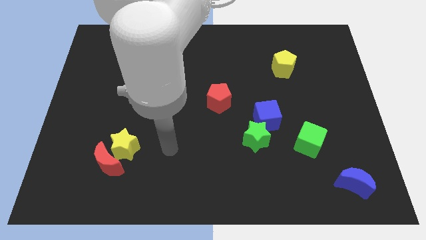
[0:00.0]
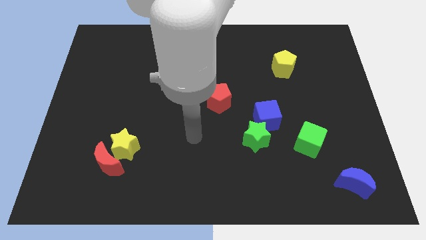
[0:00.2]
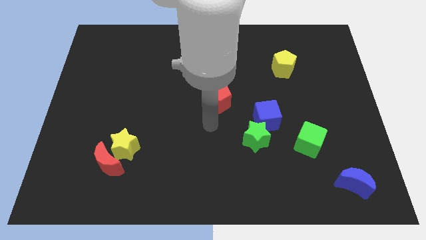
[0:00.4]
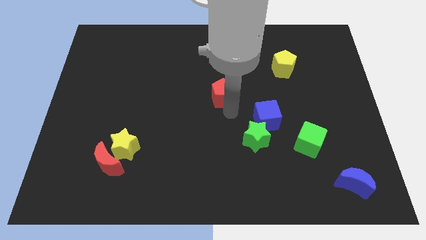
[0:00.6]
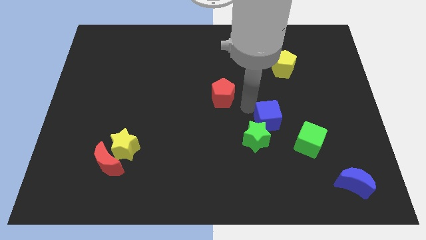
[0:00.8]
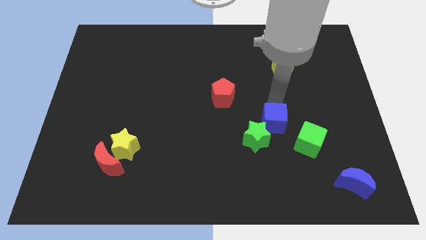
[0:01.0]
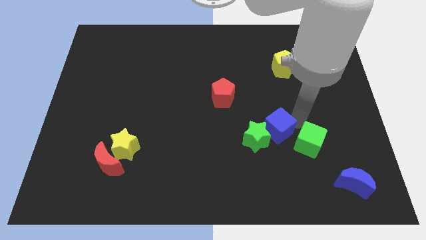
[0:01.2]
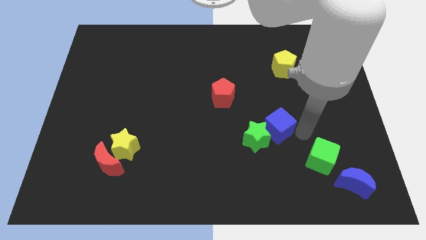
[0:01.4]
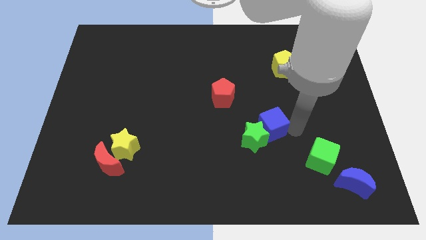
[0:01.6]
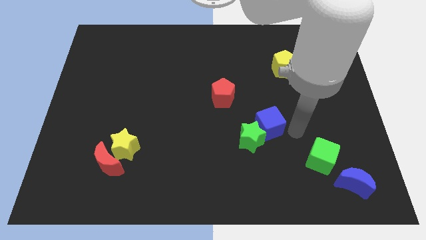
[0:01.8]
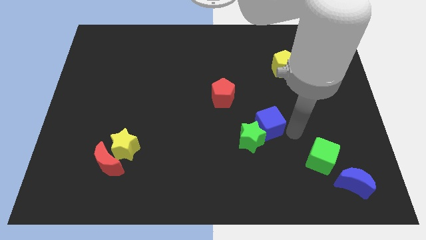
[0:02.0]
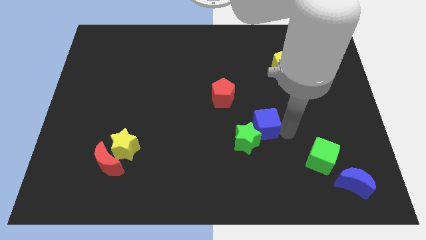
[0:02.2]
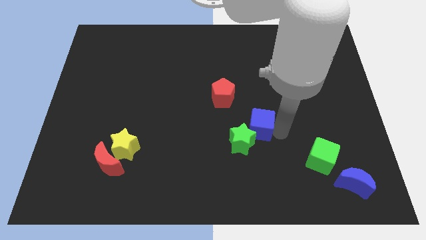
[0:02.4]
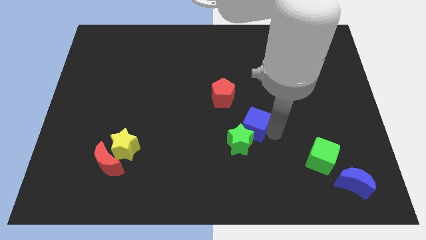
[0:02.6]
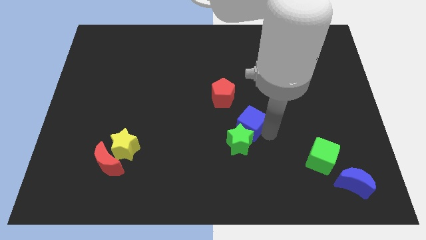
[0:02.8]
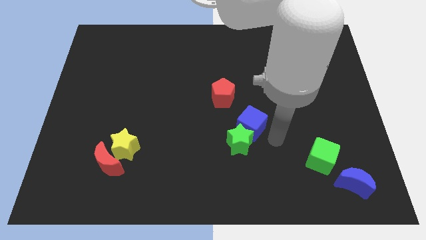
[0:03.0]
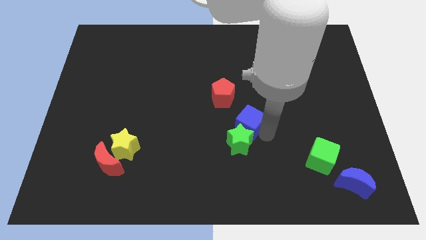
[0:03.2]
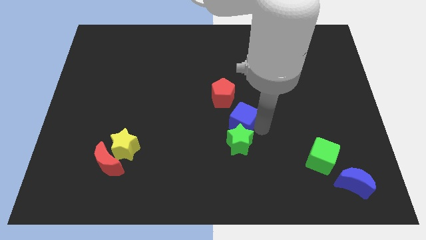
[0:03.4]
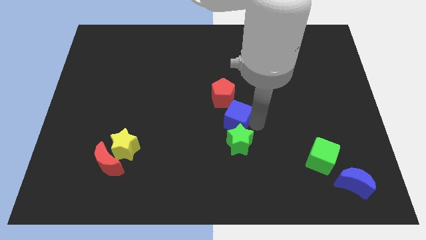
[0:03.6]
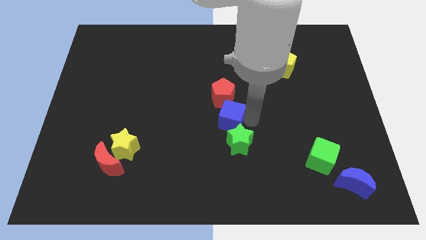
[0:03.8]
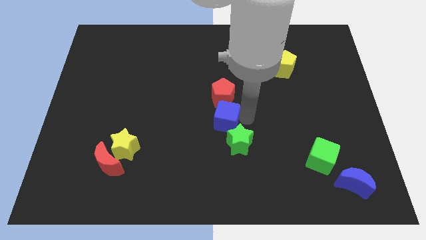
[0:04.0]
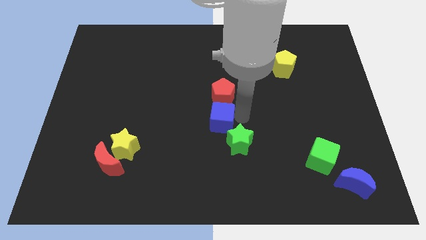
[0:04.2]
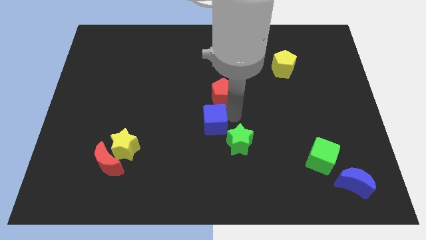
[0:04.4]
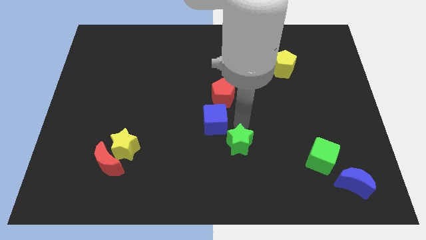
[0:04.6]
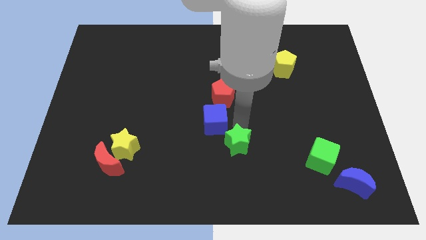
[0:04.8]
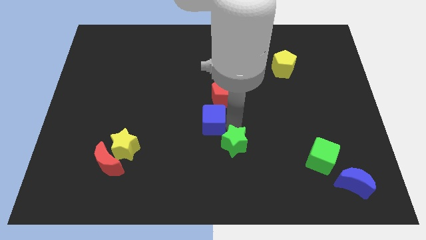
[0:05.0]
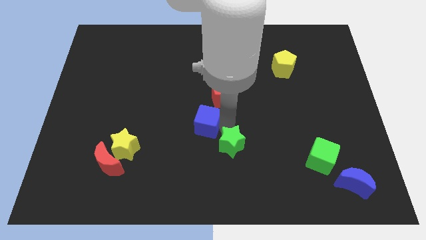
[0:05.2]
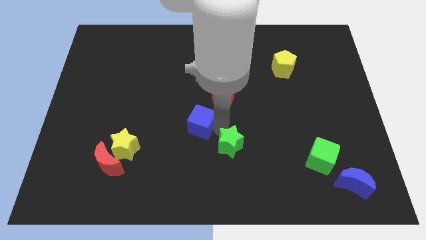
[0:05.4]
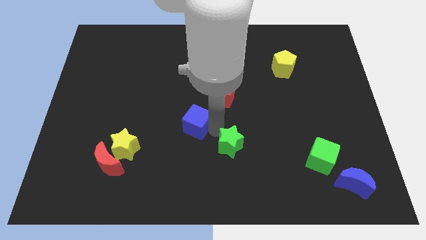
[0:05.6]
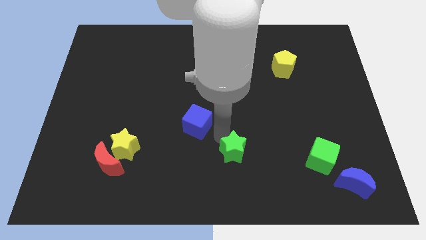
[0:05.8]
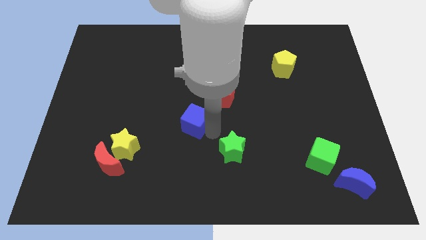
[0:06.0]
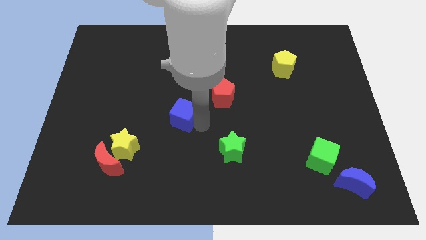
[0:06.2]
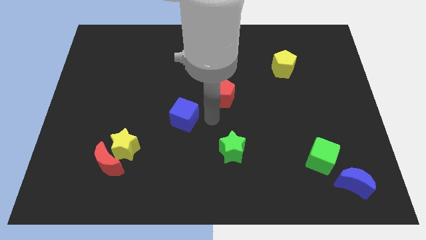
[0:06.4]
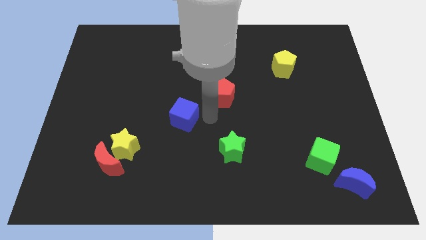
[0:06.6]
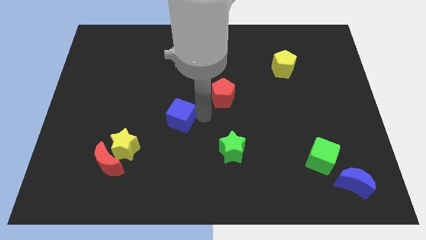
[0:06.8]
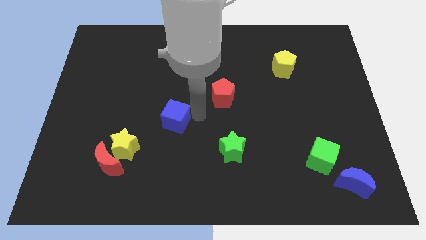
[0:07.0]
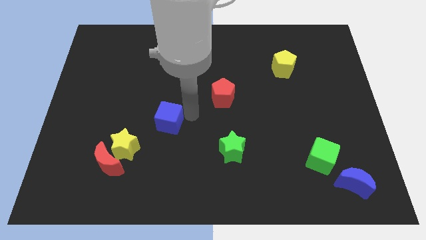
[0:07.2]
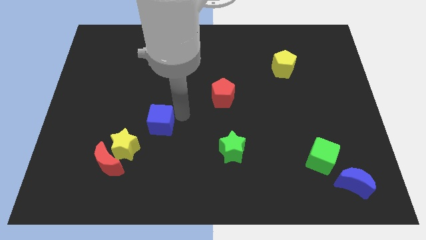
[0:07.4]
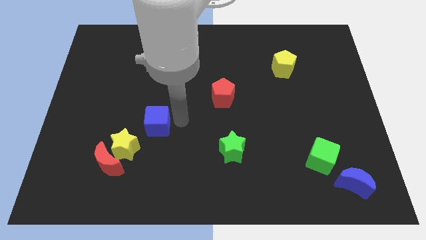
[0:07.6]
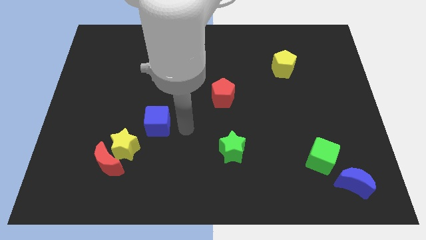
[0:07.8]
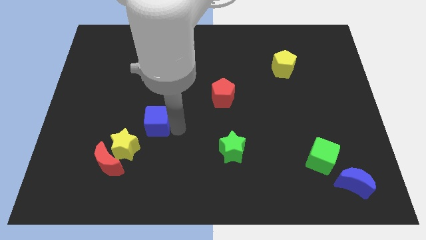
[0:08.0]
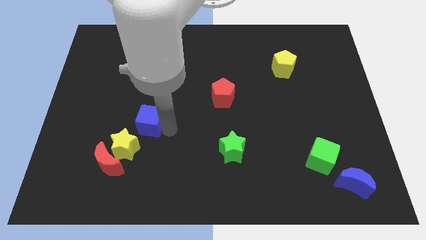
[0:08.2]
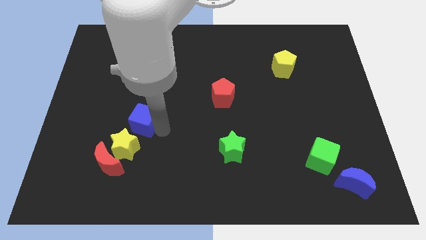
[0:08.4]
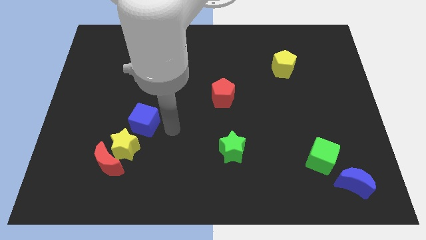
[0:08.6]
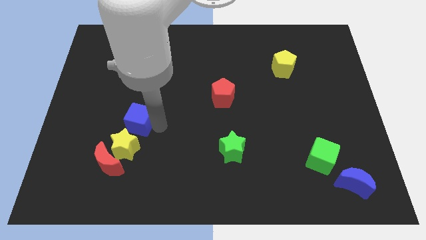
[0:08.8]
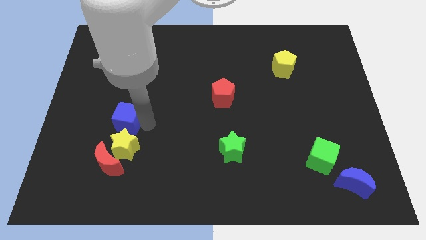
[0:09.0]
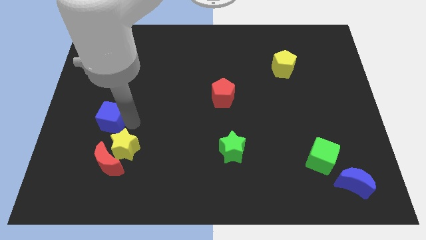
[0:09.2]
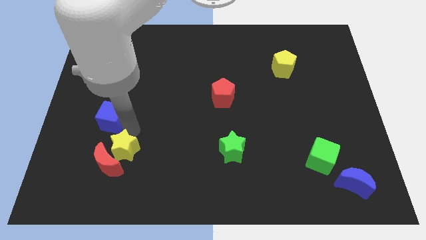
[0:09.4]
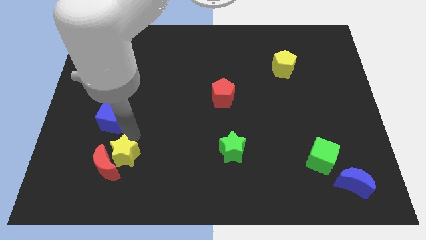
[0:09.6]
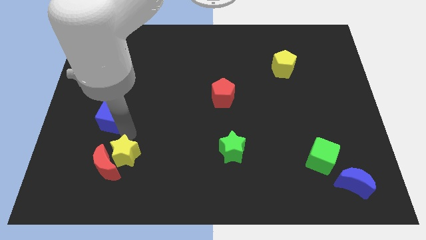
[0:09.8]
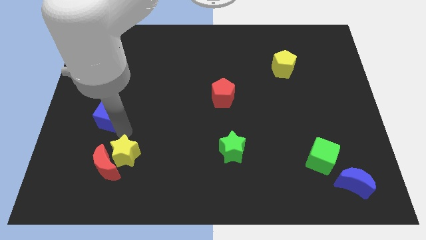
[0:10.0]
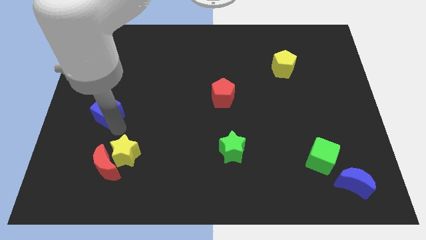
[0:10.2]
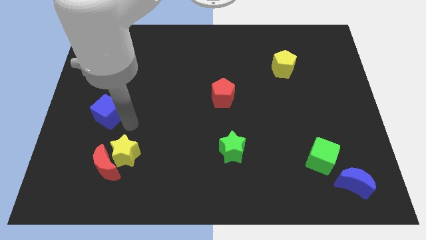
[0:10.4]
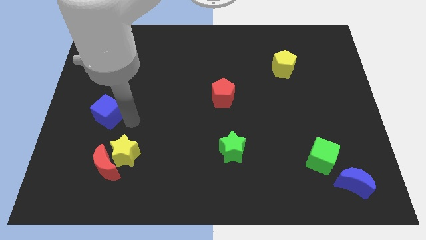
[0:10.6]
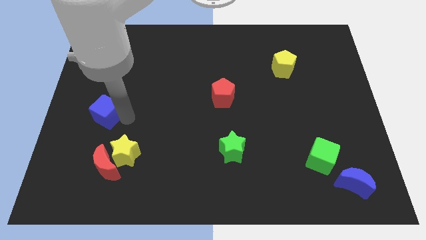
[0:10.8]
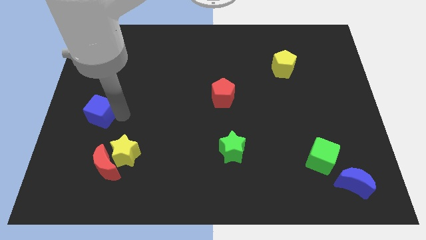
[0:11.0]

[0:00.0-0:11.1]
move the blue cube to the center left

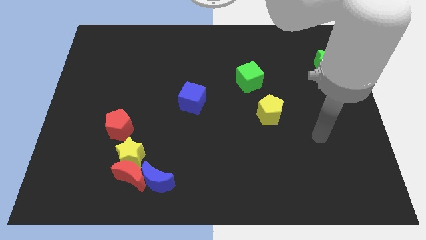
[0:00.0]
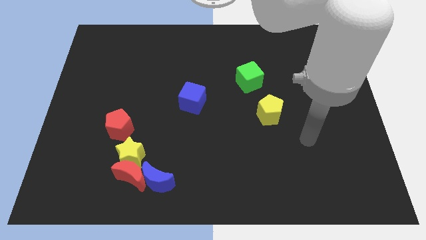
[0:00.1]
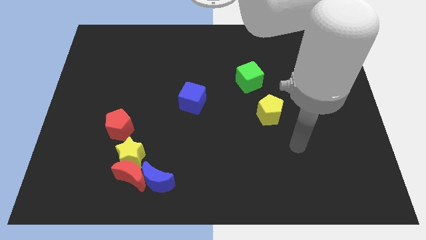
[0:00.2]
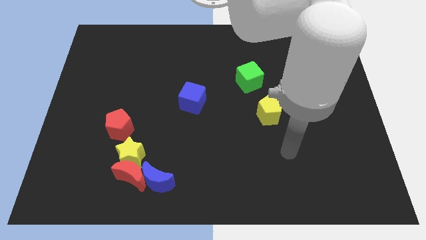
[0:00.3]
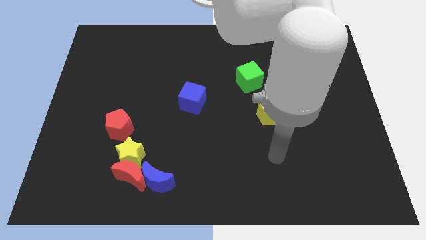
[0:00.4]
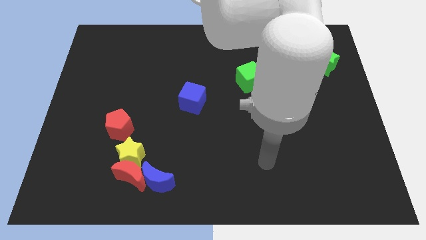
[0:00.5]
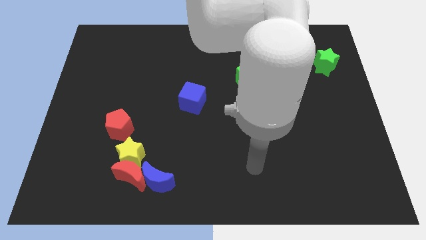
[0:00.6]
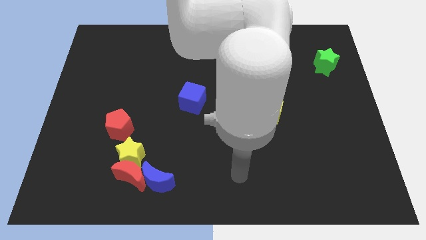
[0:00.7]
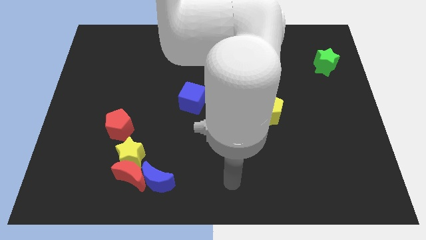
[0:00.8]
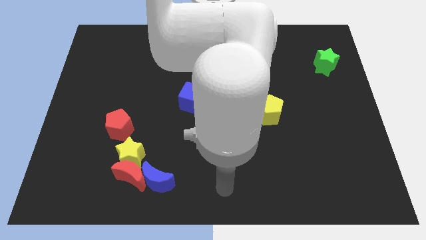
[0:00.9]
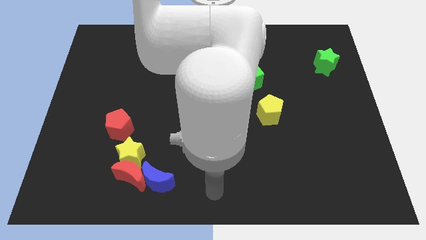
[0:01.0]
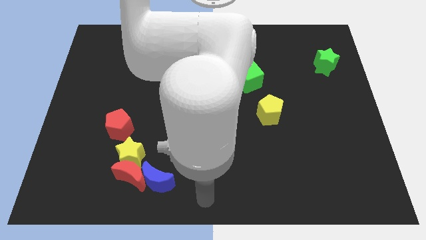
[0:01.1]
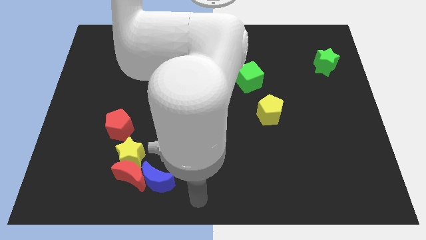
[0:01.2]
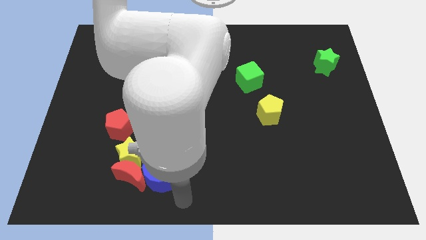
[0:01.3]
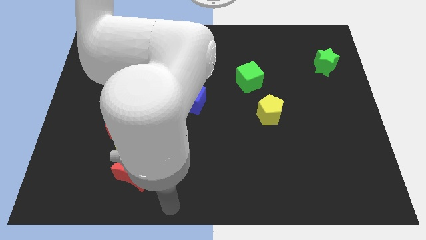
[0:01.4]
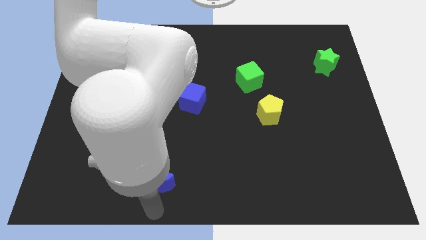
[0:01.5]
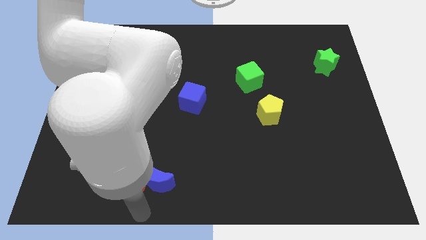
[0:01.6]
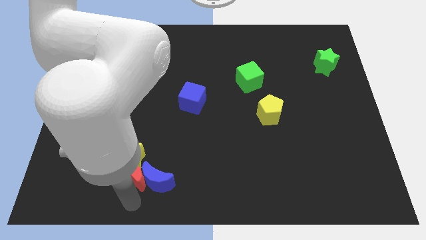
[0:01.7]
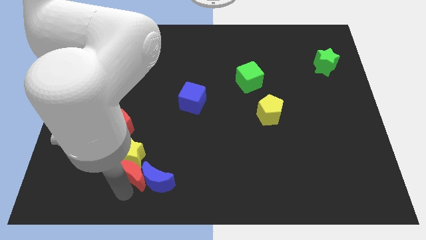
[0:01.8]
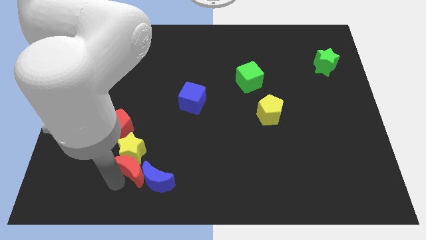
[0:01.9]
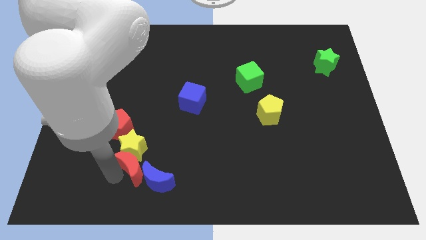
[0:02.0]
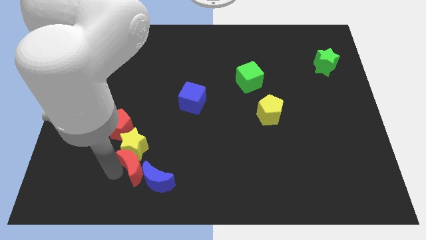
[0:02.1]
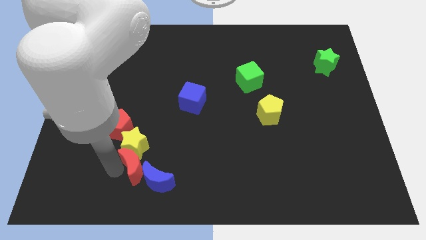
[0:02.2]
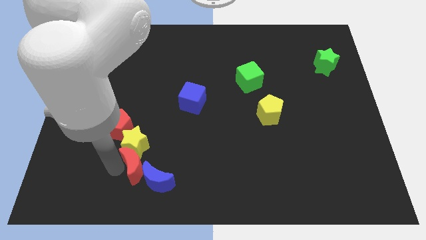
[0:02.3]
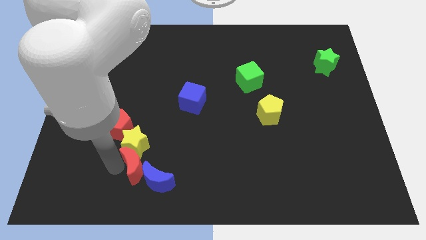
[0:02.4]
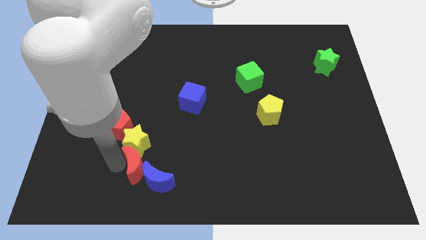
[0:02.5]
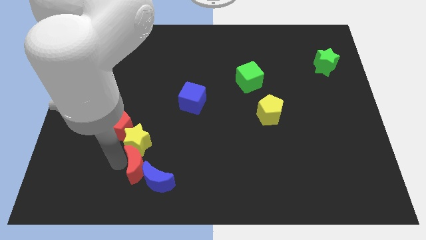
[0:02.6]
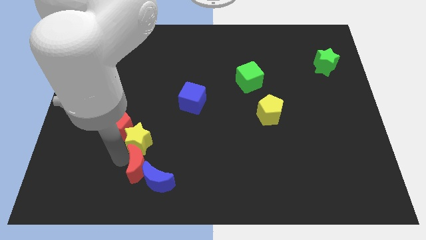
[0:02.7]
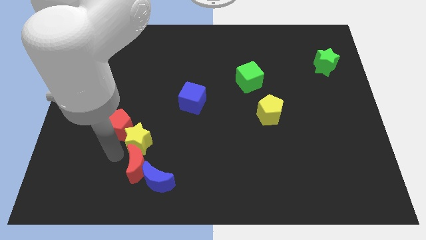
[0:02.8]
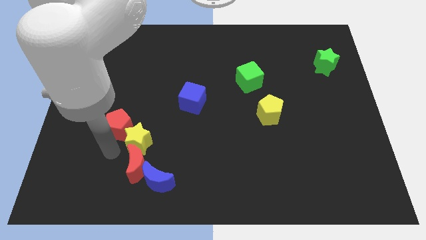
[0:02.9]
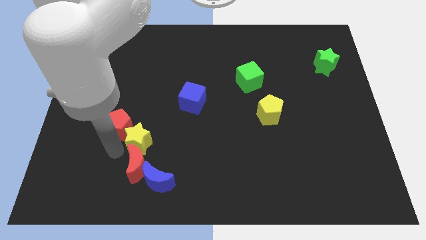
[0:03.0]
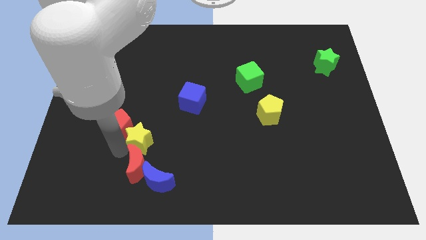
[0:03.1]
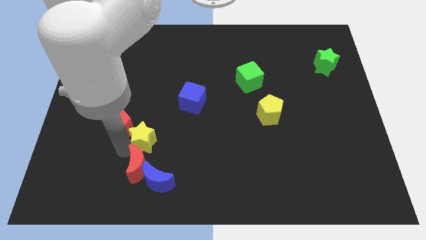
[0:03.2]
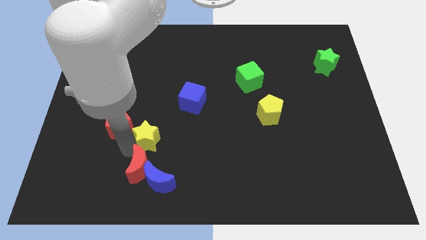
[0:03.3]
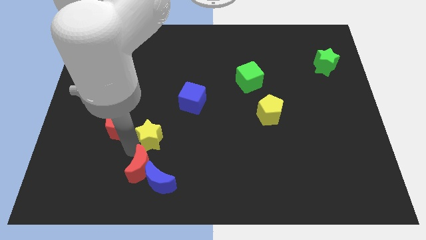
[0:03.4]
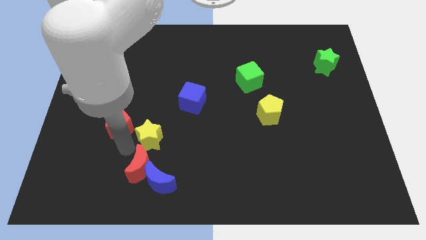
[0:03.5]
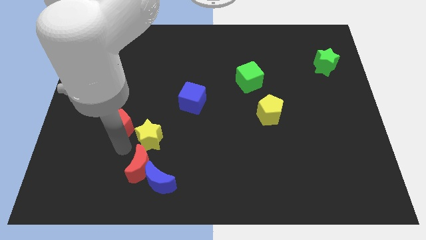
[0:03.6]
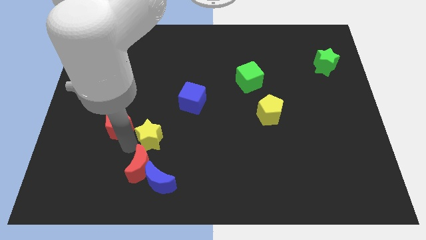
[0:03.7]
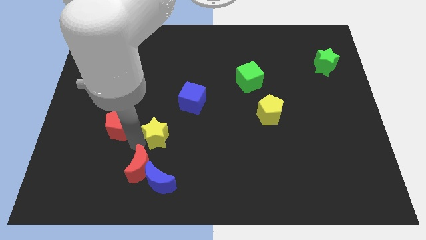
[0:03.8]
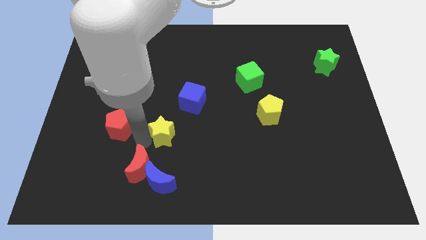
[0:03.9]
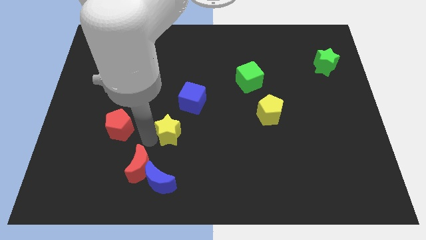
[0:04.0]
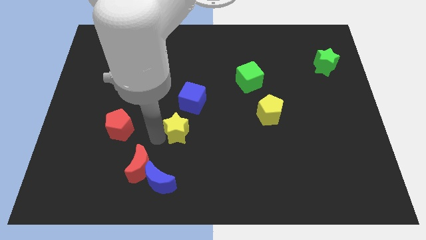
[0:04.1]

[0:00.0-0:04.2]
push the yellow star to the center of the board
